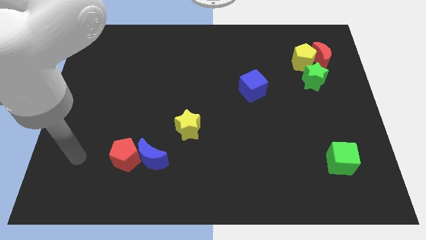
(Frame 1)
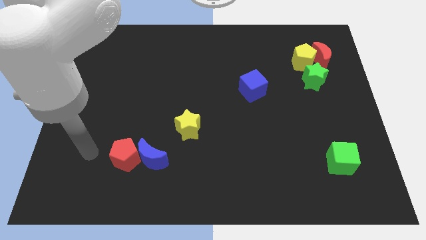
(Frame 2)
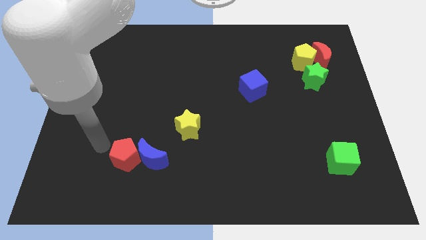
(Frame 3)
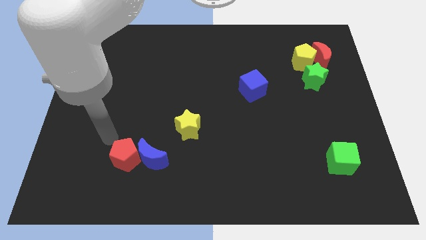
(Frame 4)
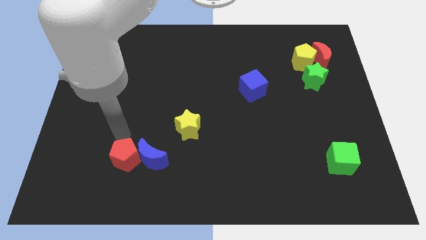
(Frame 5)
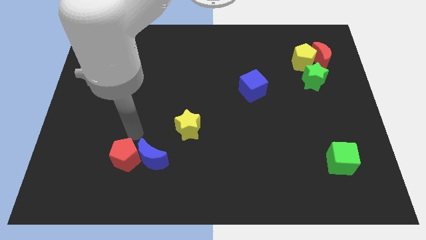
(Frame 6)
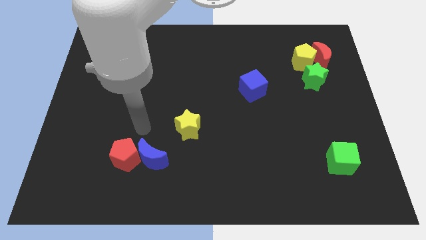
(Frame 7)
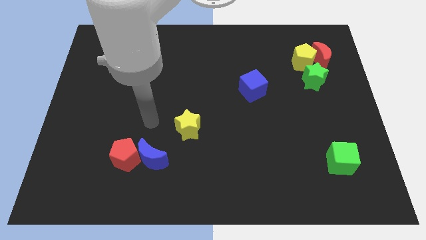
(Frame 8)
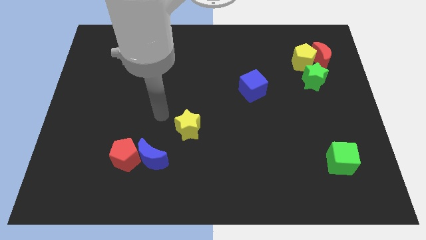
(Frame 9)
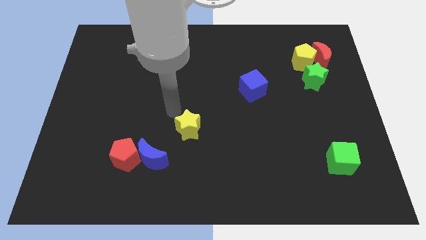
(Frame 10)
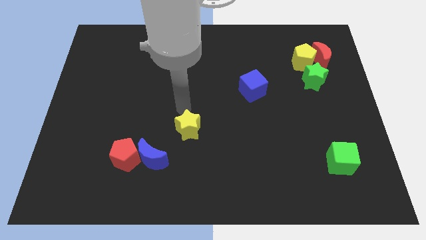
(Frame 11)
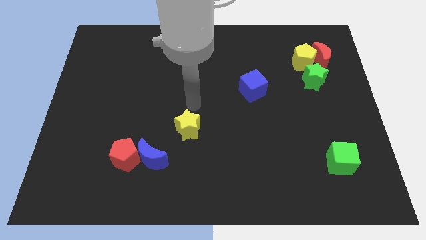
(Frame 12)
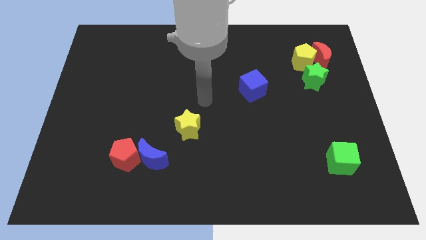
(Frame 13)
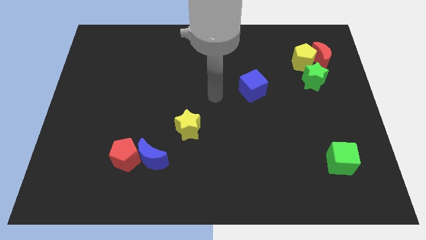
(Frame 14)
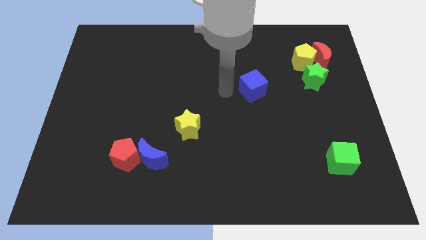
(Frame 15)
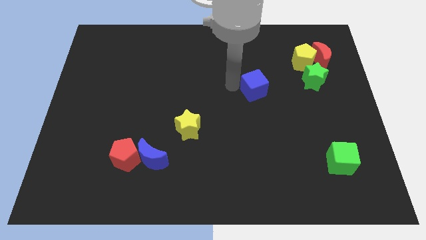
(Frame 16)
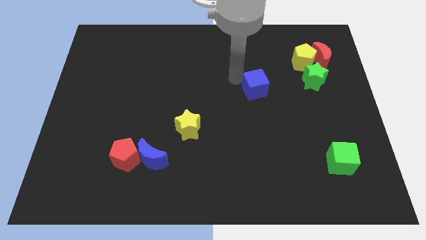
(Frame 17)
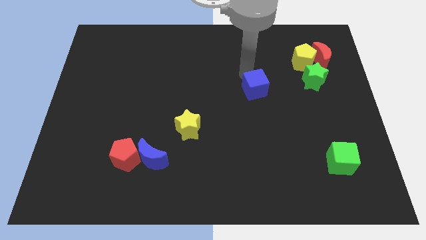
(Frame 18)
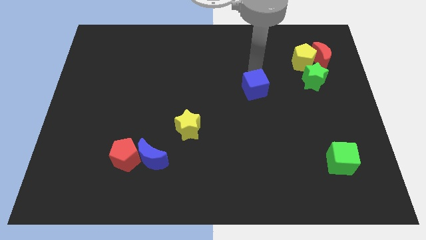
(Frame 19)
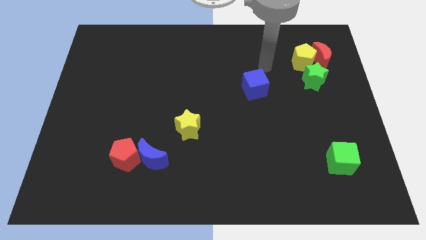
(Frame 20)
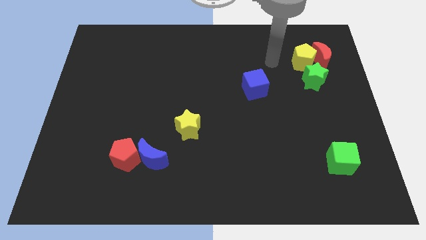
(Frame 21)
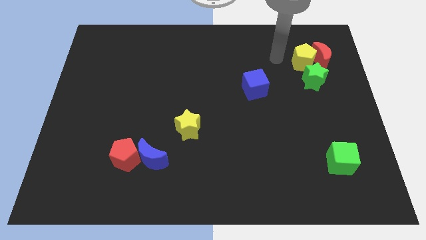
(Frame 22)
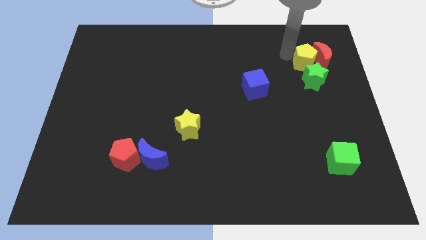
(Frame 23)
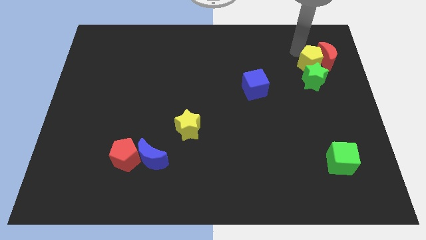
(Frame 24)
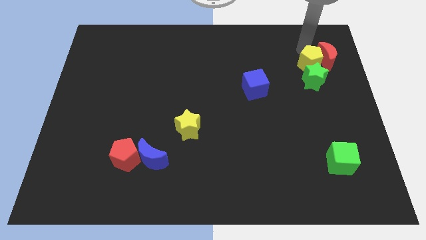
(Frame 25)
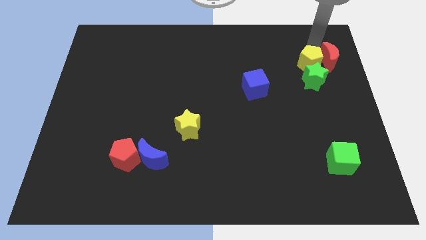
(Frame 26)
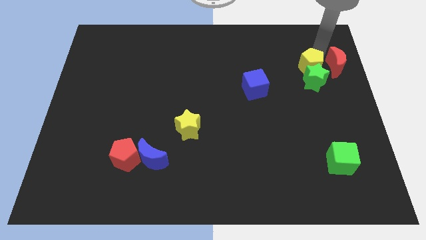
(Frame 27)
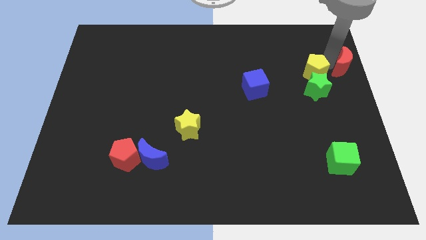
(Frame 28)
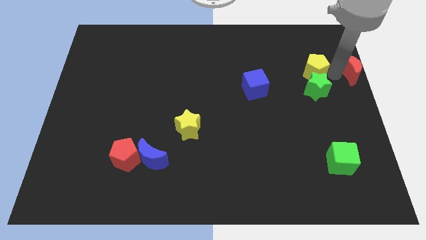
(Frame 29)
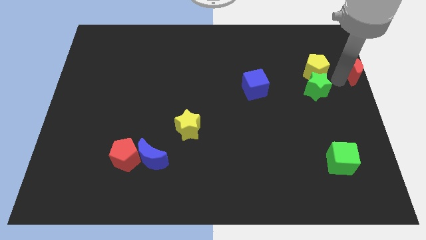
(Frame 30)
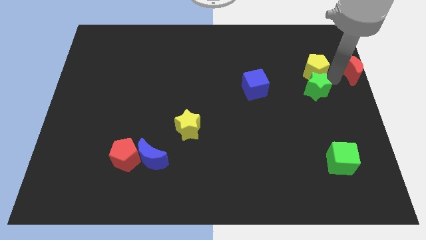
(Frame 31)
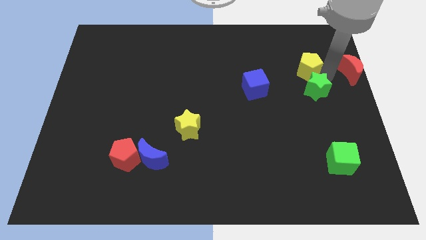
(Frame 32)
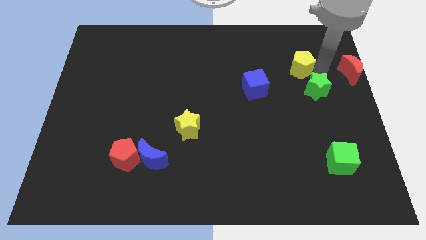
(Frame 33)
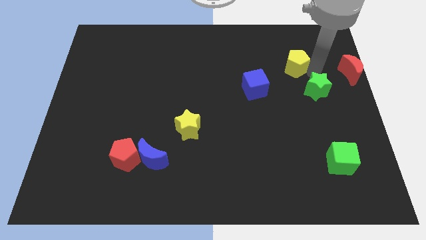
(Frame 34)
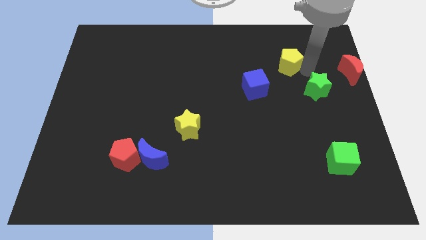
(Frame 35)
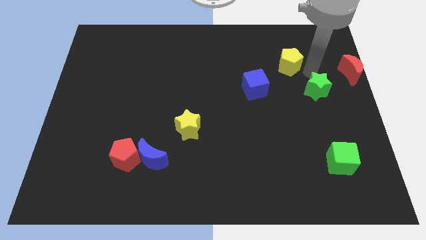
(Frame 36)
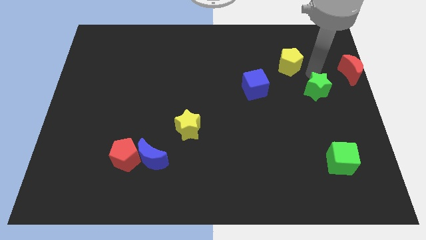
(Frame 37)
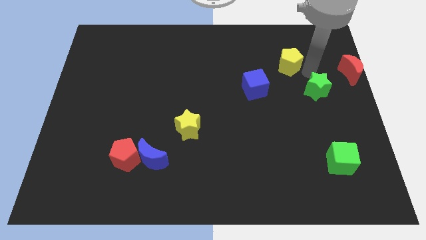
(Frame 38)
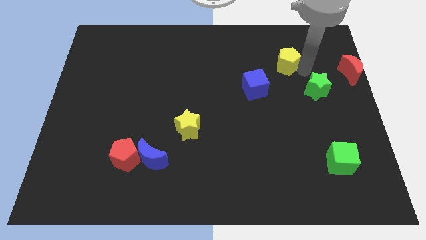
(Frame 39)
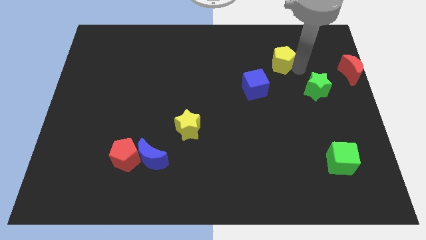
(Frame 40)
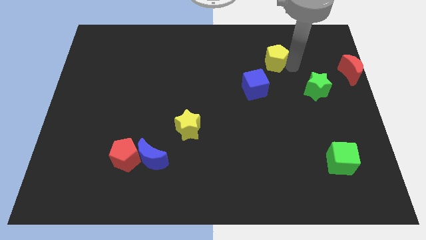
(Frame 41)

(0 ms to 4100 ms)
push the yellow pentagon to the left somewhat

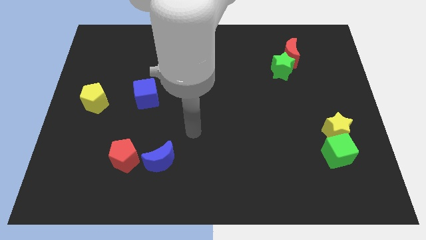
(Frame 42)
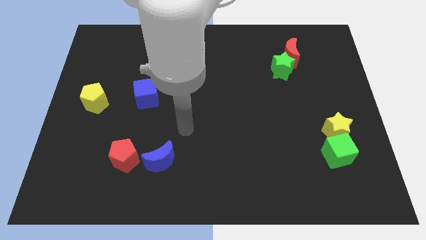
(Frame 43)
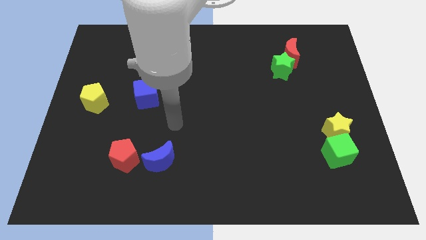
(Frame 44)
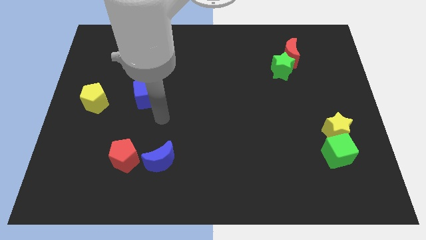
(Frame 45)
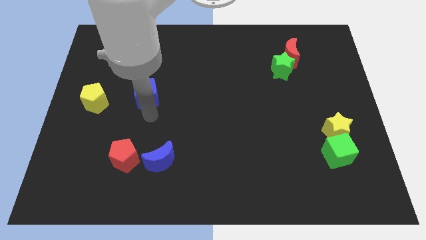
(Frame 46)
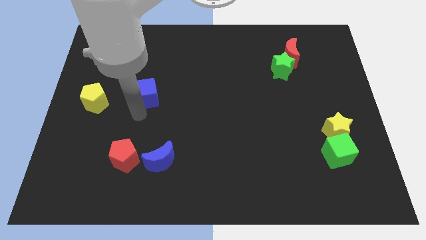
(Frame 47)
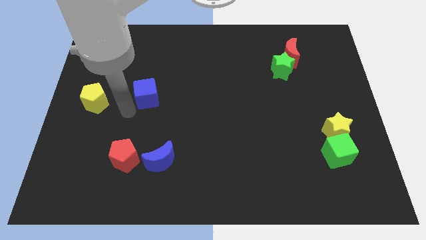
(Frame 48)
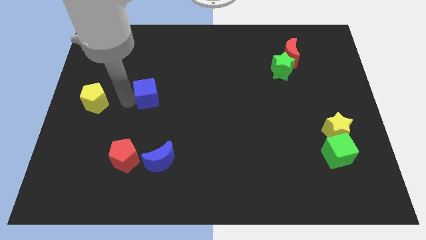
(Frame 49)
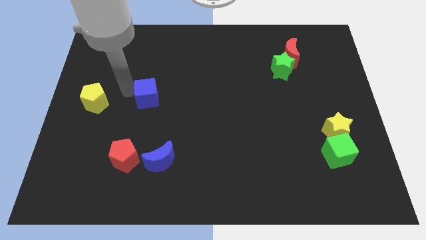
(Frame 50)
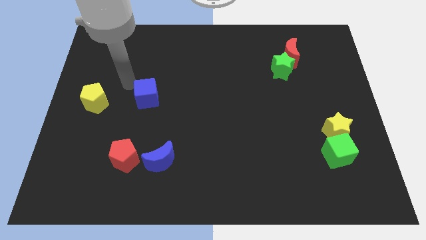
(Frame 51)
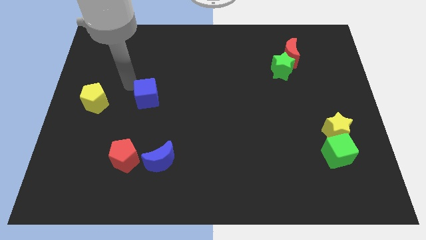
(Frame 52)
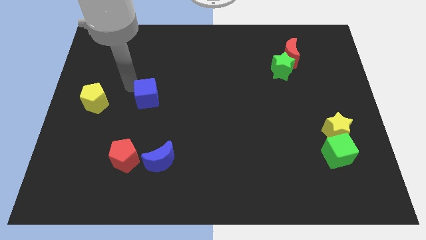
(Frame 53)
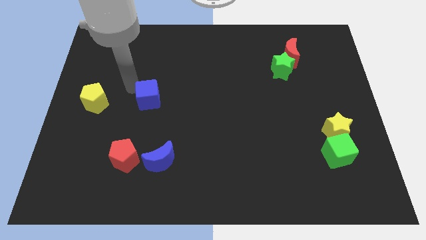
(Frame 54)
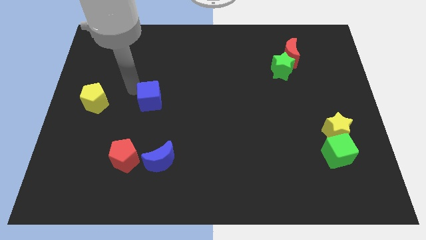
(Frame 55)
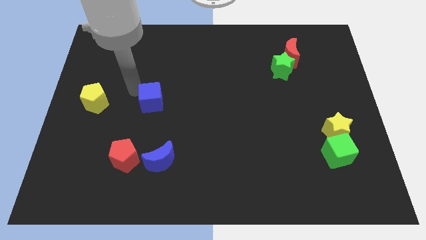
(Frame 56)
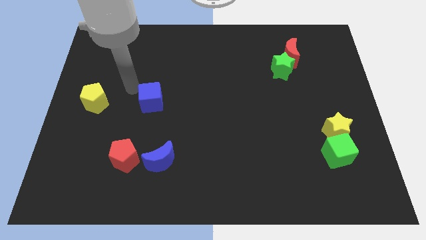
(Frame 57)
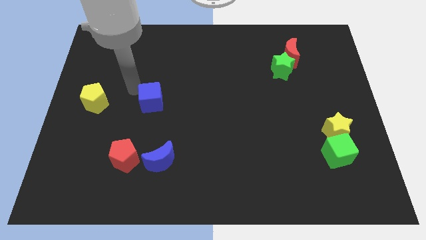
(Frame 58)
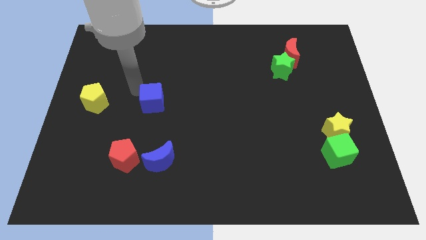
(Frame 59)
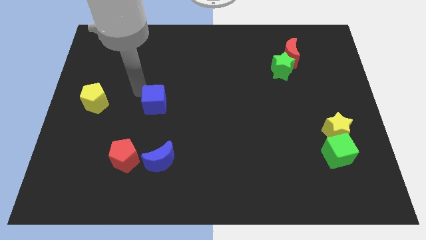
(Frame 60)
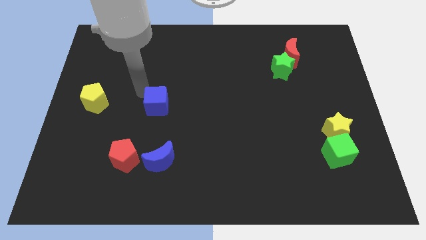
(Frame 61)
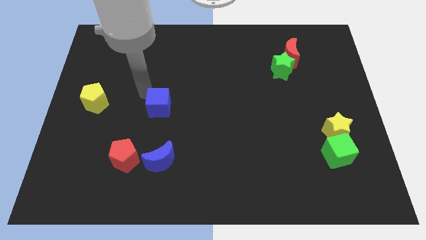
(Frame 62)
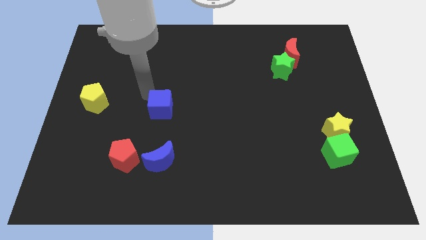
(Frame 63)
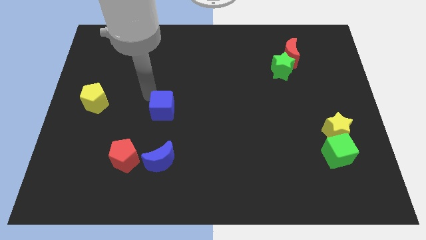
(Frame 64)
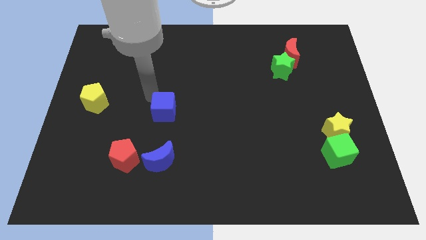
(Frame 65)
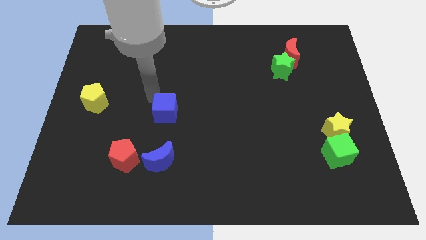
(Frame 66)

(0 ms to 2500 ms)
slide the blue cube down and to the right diagonally a bit

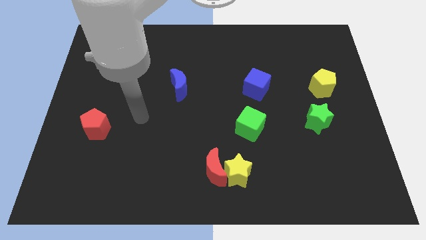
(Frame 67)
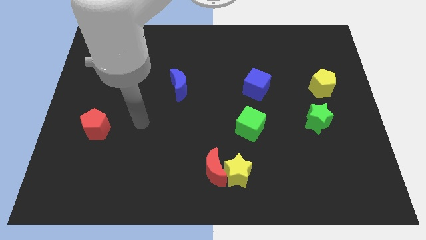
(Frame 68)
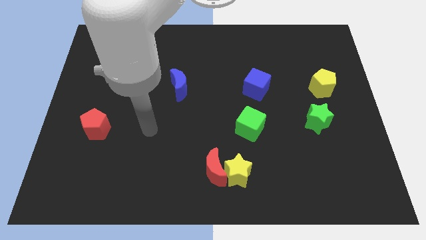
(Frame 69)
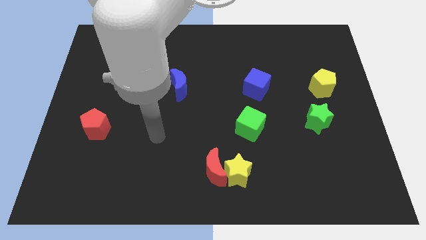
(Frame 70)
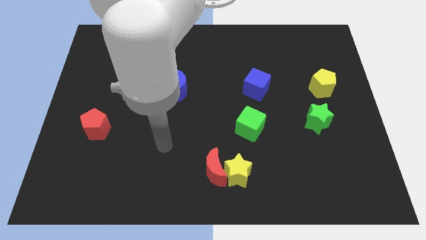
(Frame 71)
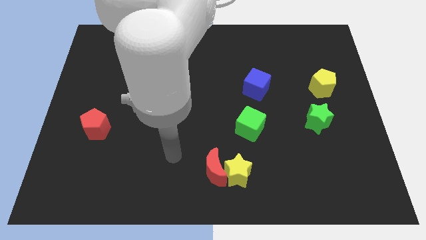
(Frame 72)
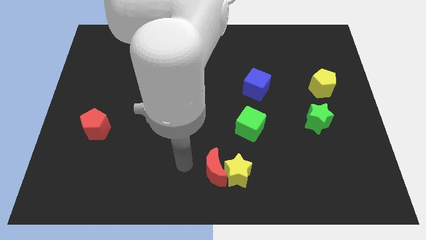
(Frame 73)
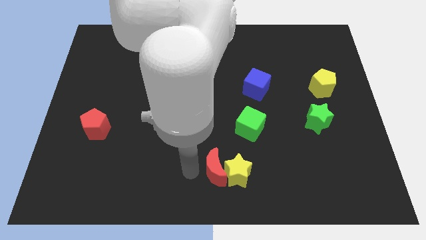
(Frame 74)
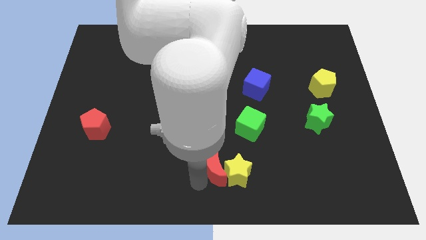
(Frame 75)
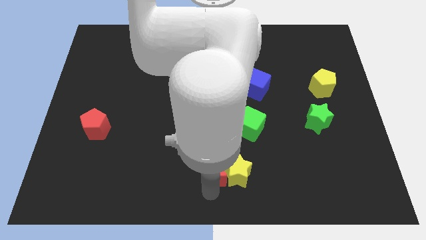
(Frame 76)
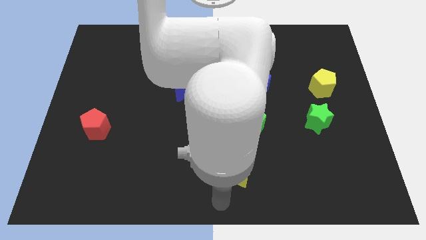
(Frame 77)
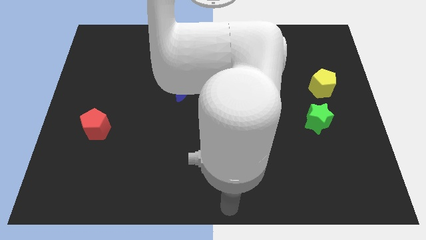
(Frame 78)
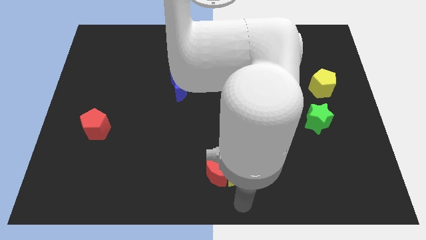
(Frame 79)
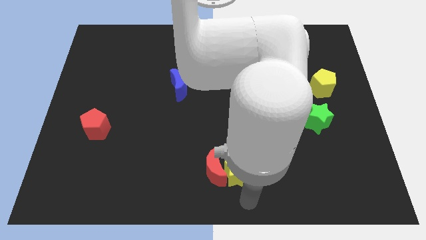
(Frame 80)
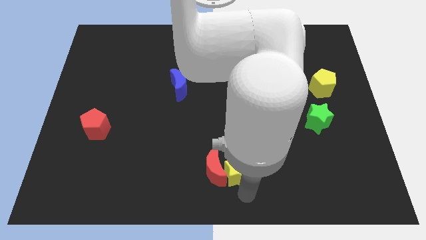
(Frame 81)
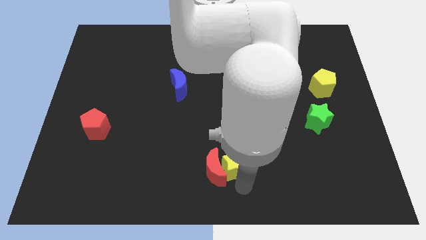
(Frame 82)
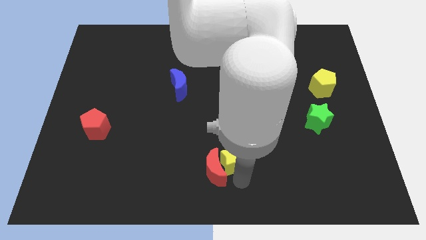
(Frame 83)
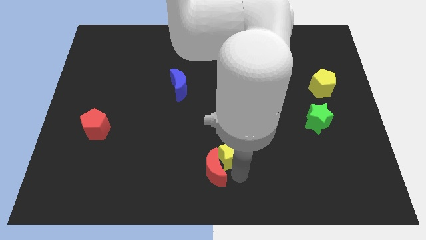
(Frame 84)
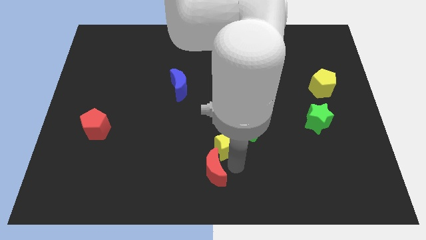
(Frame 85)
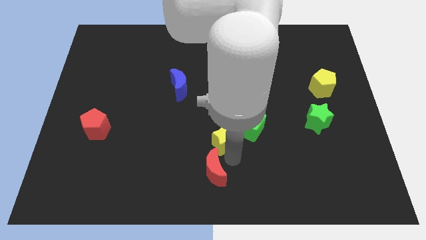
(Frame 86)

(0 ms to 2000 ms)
slide the yellow star a bit upwards
